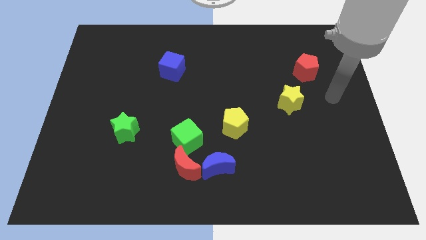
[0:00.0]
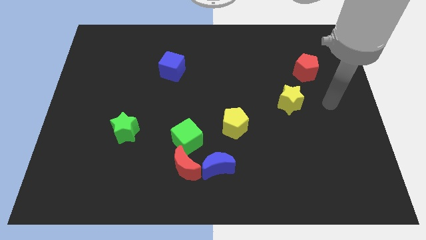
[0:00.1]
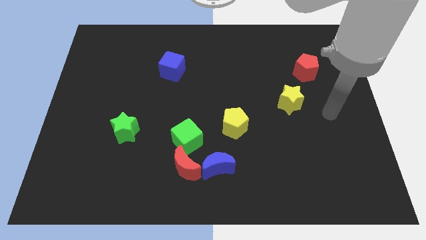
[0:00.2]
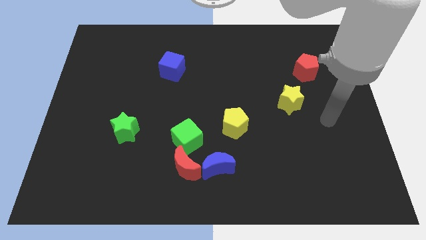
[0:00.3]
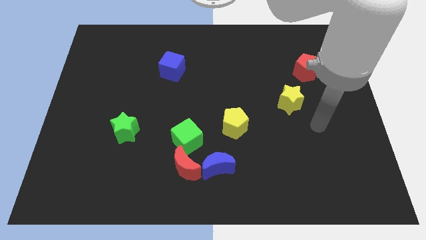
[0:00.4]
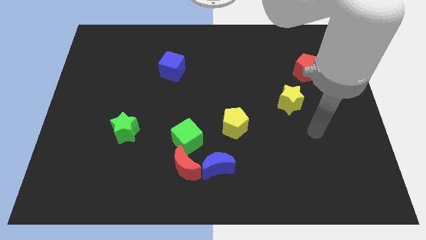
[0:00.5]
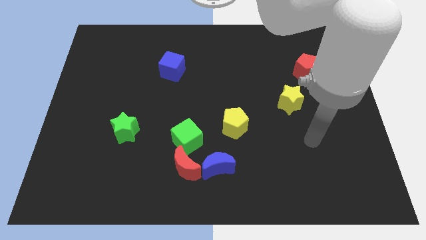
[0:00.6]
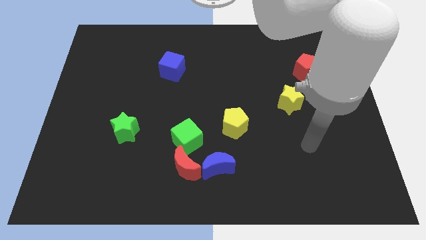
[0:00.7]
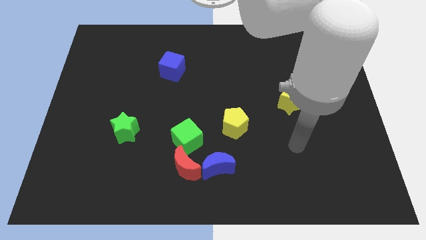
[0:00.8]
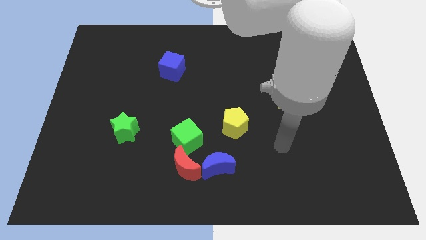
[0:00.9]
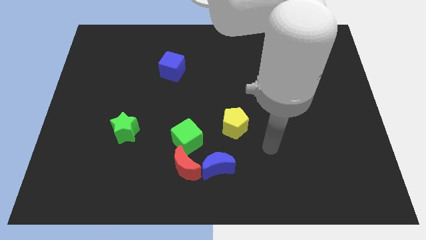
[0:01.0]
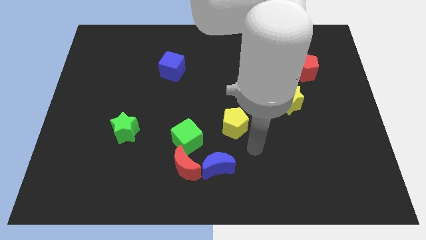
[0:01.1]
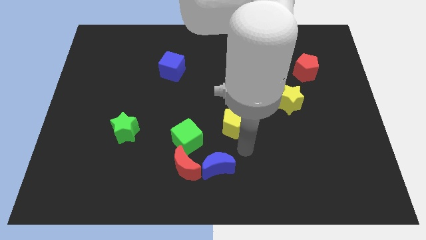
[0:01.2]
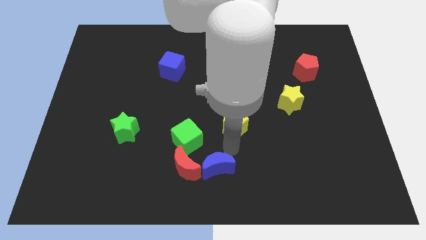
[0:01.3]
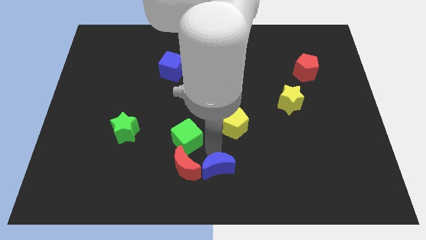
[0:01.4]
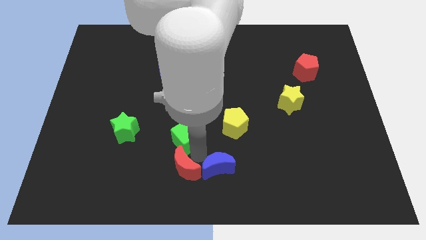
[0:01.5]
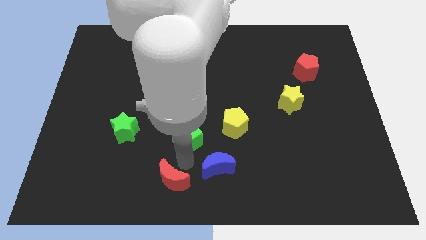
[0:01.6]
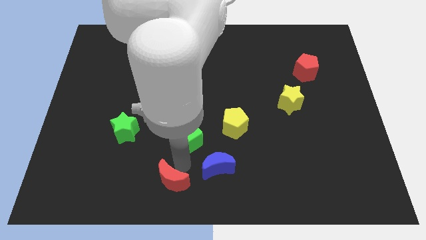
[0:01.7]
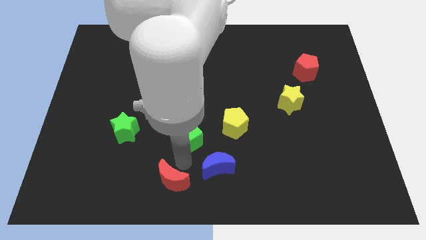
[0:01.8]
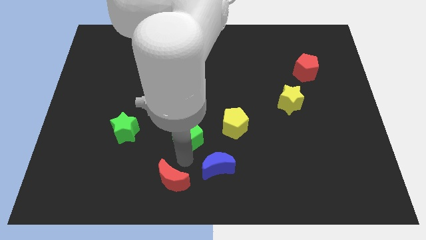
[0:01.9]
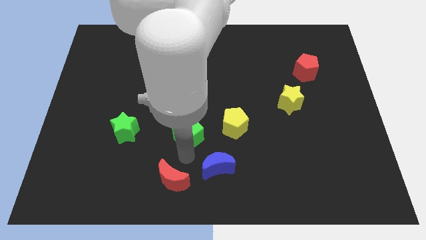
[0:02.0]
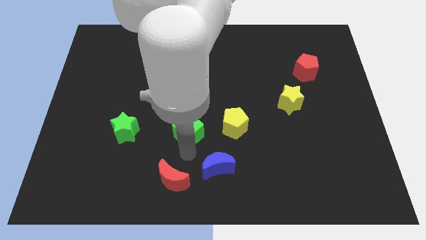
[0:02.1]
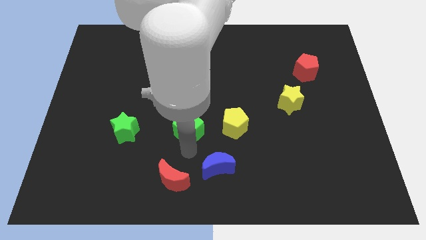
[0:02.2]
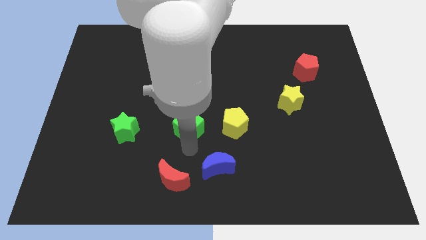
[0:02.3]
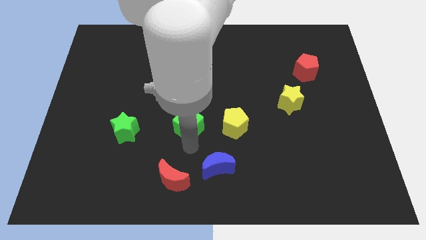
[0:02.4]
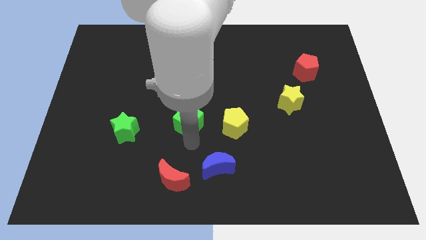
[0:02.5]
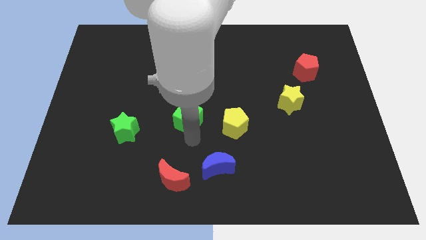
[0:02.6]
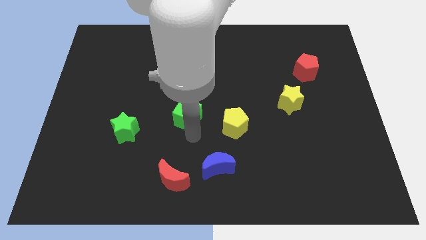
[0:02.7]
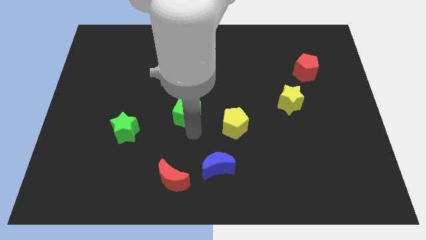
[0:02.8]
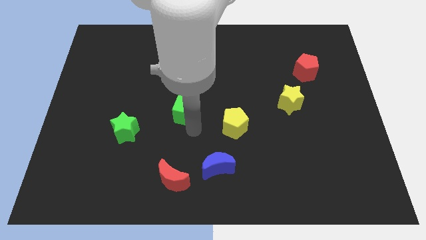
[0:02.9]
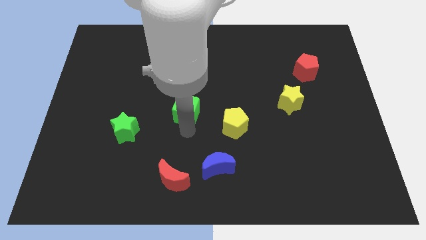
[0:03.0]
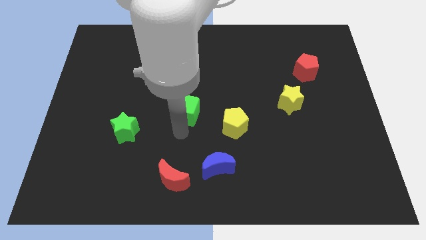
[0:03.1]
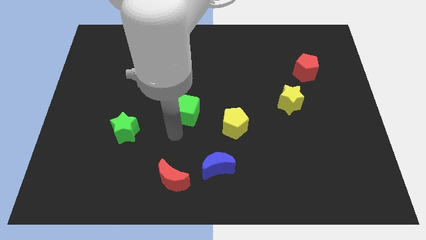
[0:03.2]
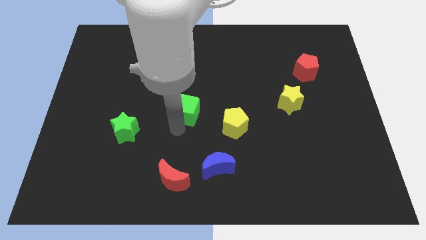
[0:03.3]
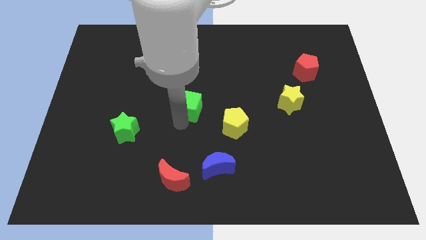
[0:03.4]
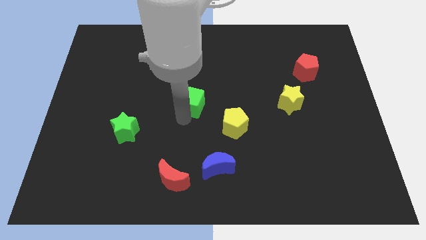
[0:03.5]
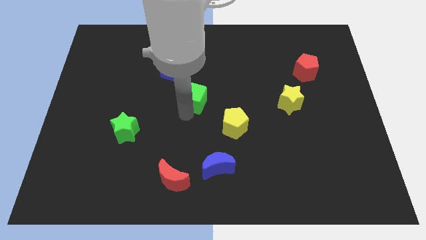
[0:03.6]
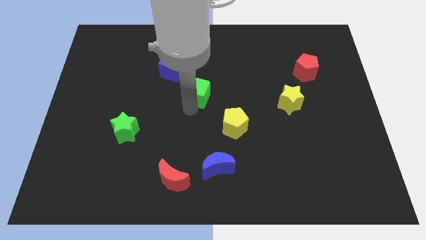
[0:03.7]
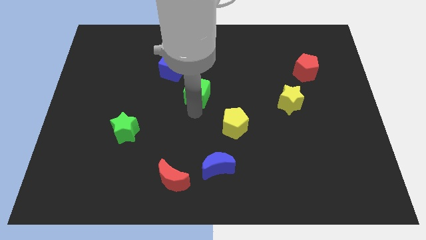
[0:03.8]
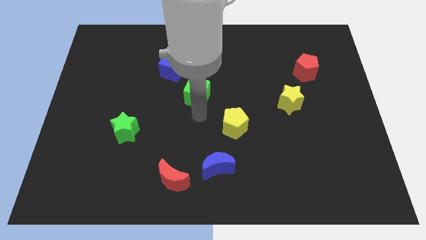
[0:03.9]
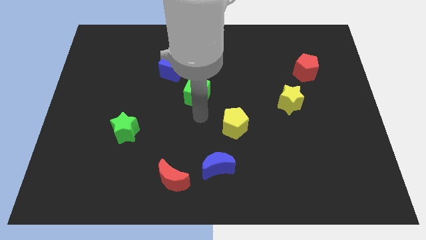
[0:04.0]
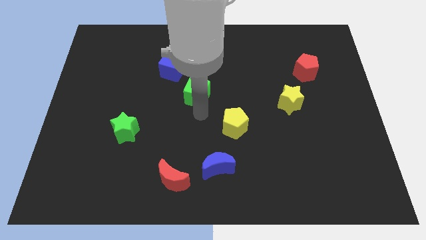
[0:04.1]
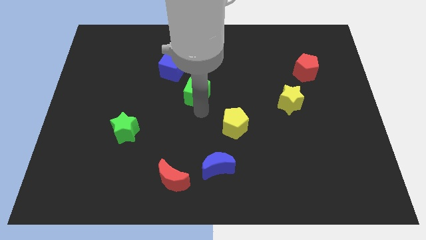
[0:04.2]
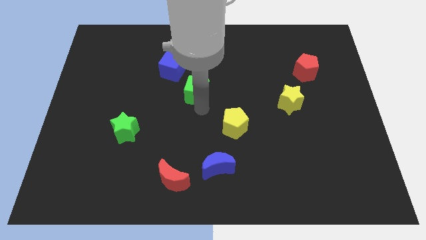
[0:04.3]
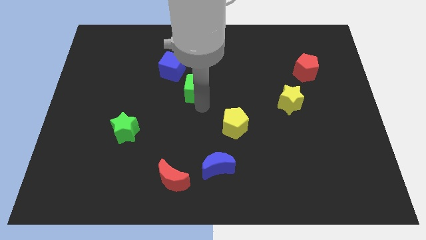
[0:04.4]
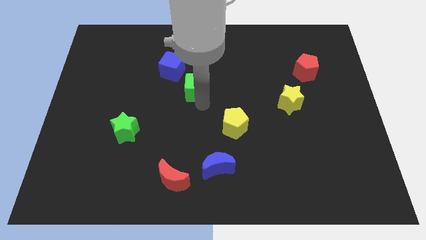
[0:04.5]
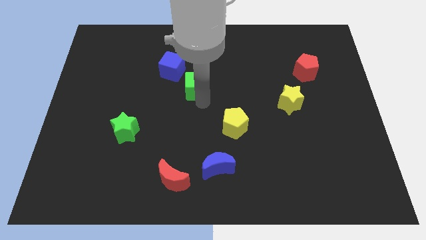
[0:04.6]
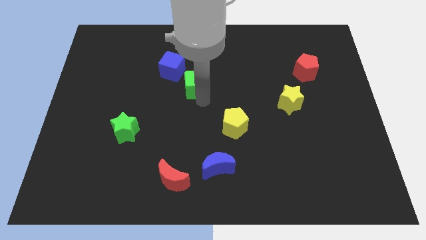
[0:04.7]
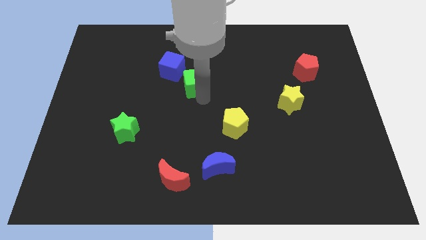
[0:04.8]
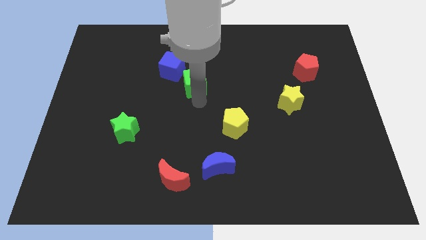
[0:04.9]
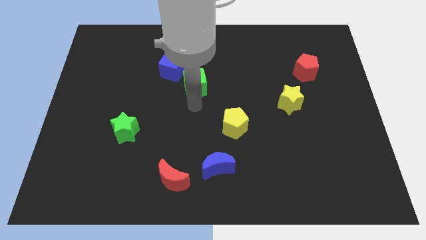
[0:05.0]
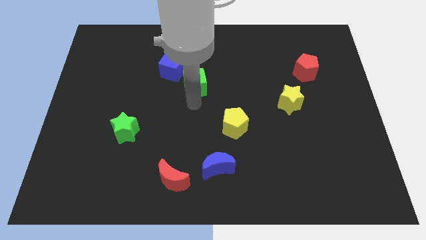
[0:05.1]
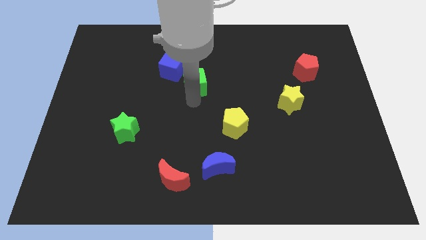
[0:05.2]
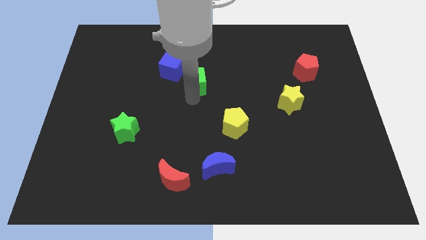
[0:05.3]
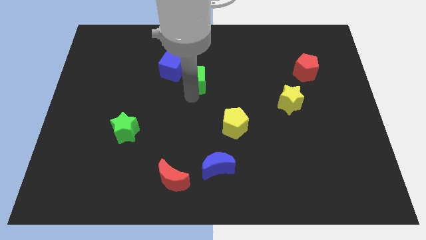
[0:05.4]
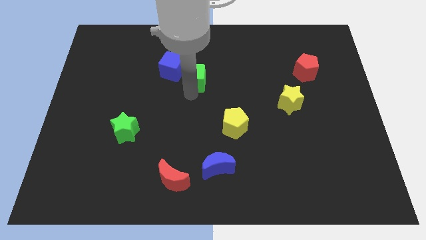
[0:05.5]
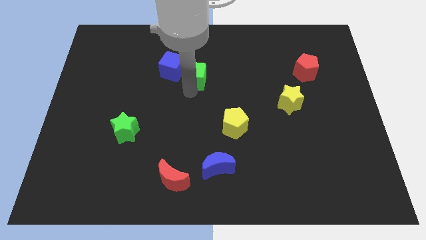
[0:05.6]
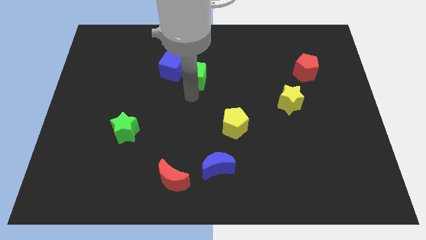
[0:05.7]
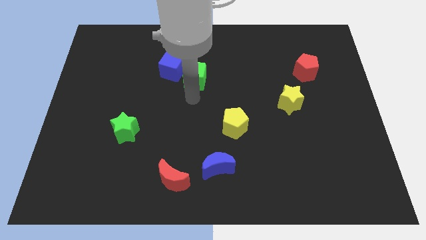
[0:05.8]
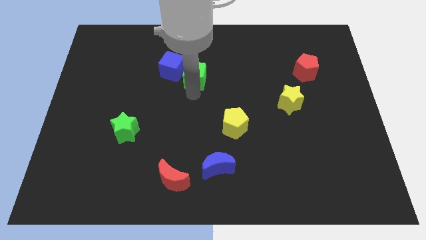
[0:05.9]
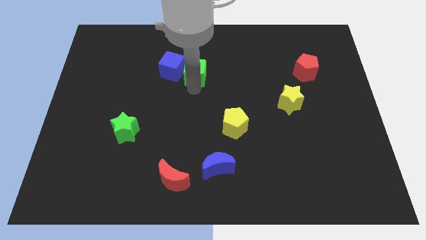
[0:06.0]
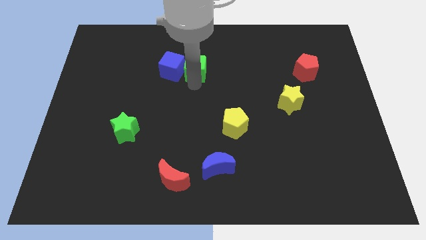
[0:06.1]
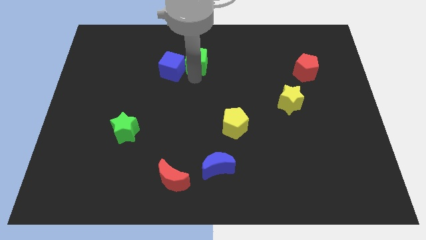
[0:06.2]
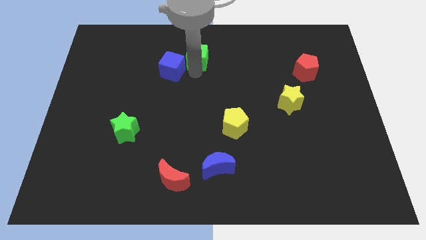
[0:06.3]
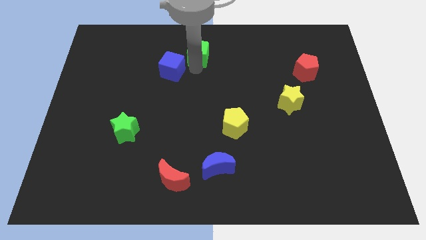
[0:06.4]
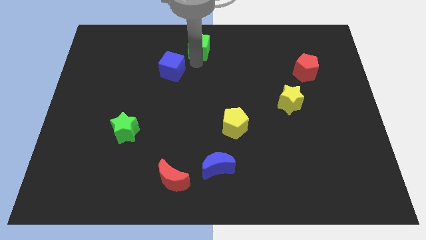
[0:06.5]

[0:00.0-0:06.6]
put the green cube to the top
